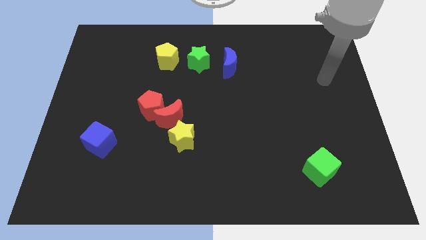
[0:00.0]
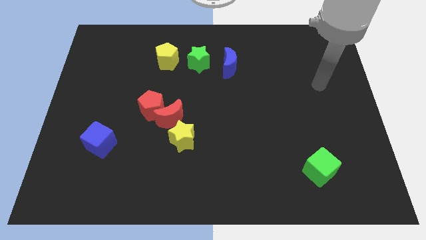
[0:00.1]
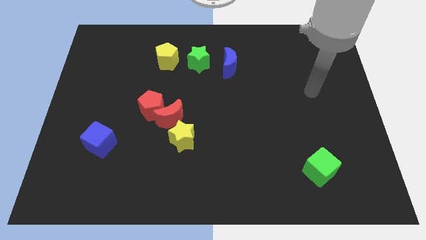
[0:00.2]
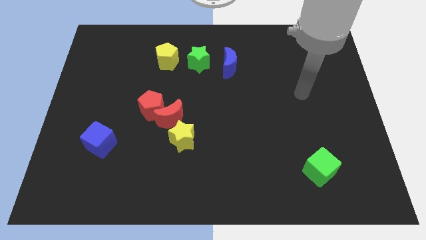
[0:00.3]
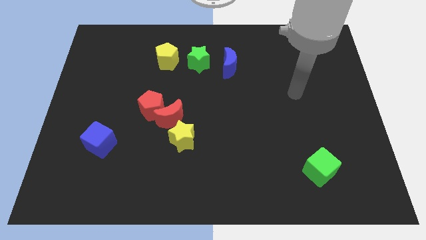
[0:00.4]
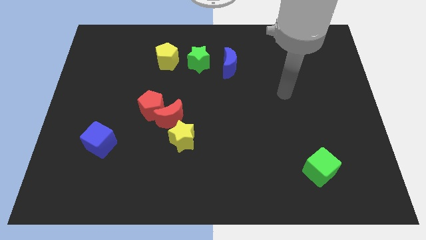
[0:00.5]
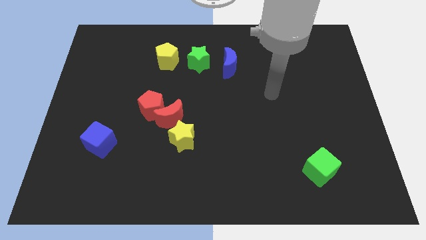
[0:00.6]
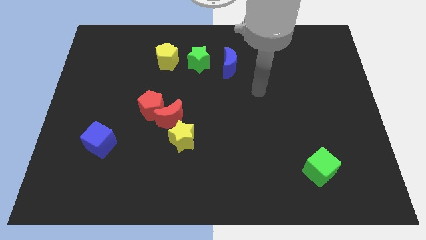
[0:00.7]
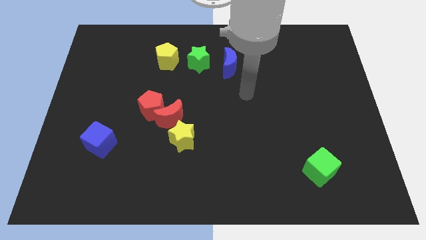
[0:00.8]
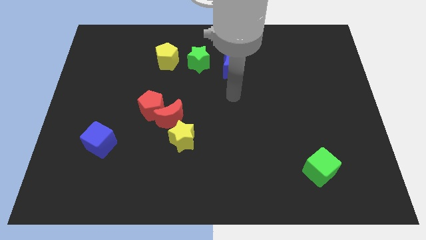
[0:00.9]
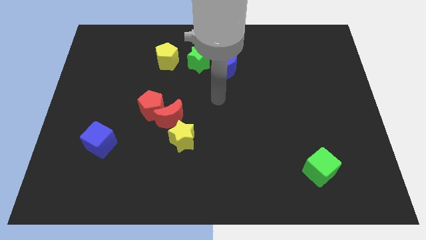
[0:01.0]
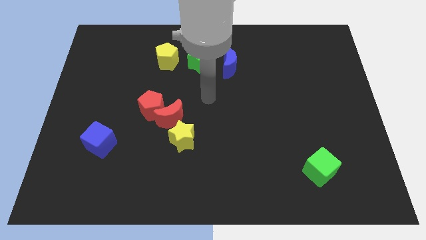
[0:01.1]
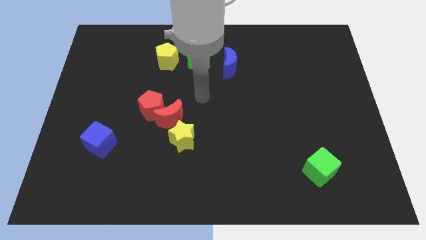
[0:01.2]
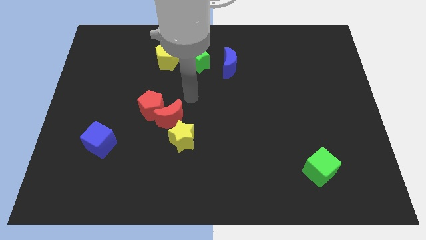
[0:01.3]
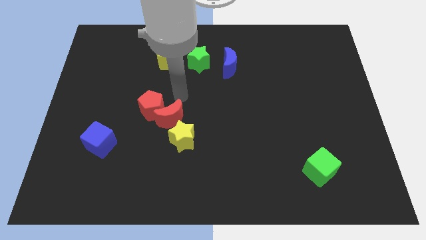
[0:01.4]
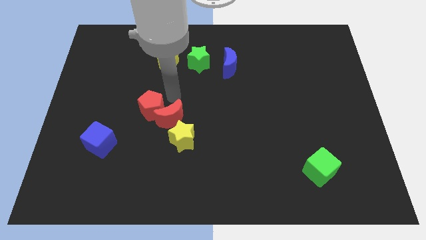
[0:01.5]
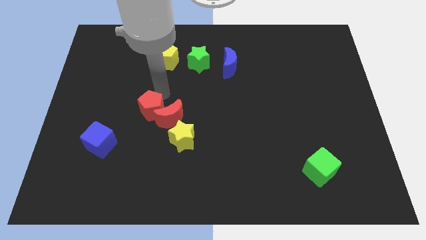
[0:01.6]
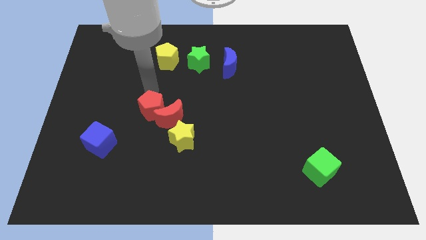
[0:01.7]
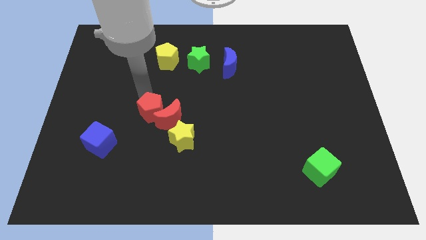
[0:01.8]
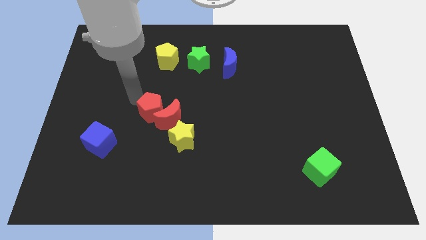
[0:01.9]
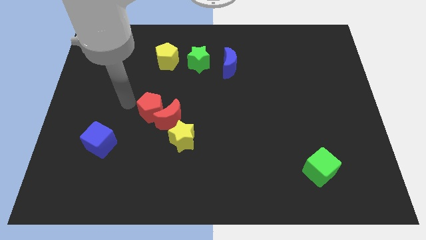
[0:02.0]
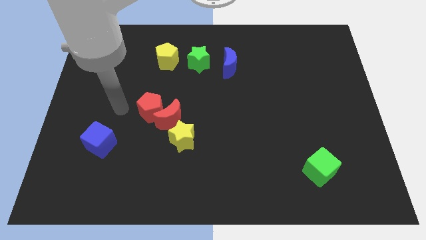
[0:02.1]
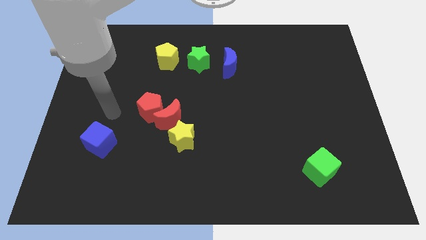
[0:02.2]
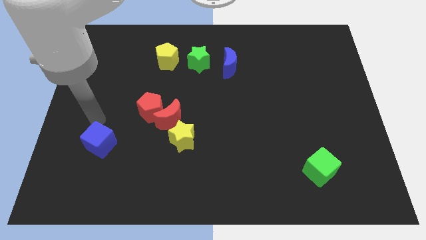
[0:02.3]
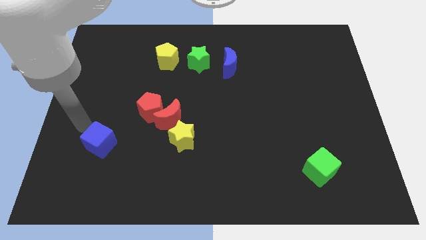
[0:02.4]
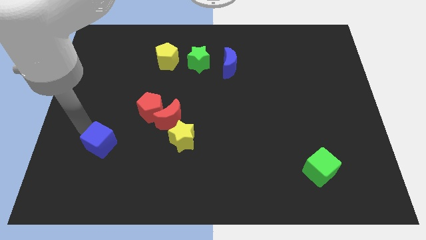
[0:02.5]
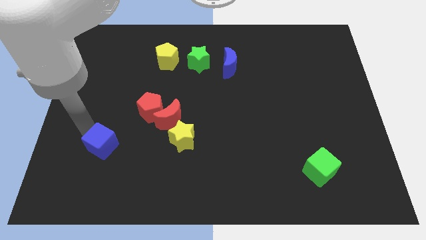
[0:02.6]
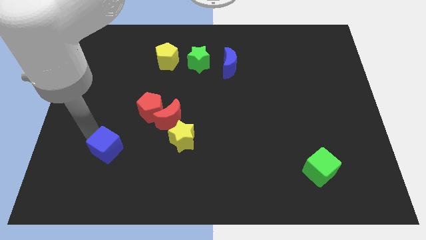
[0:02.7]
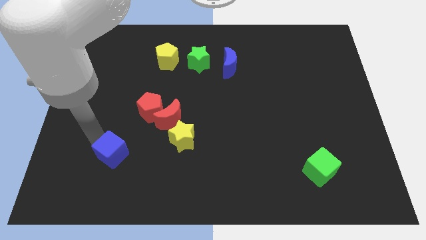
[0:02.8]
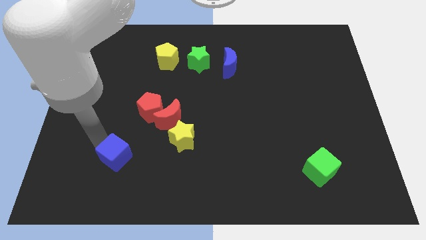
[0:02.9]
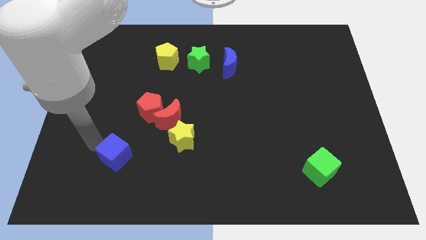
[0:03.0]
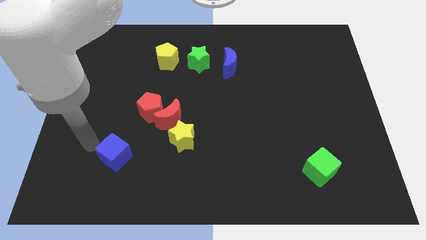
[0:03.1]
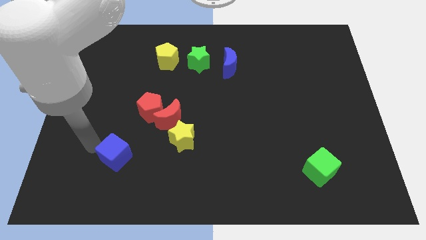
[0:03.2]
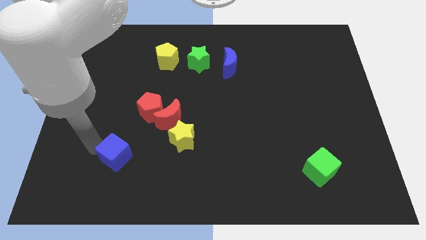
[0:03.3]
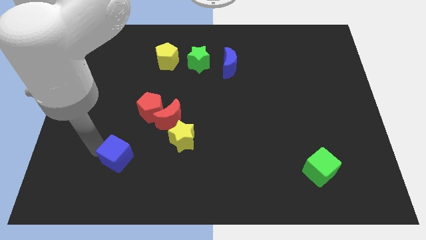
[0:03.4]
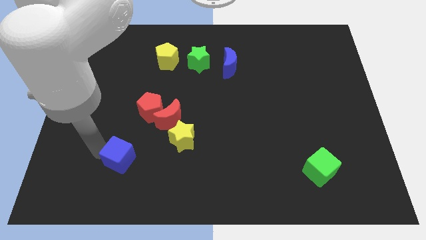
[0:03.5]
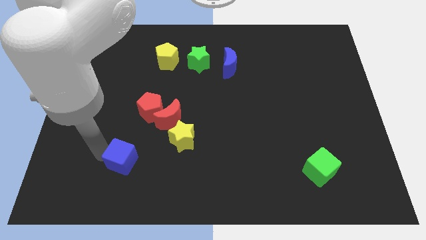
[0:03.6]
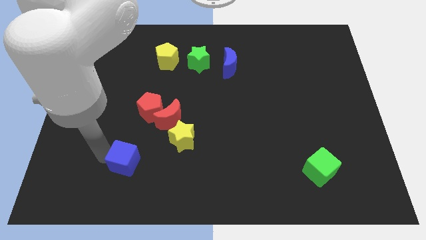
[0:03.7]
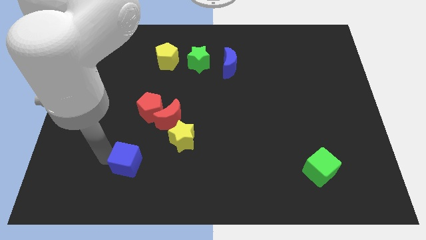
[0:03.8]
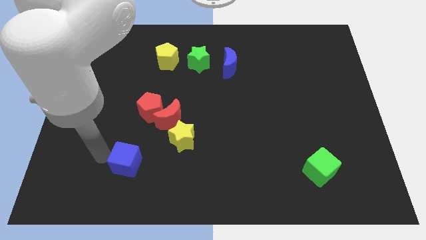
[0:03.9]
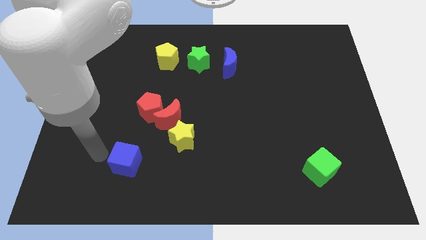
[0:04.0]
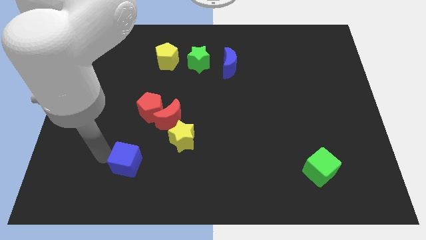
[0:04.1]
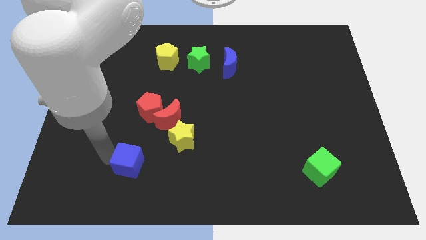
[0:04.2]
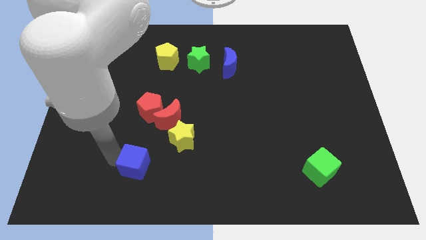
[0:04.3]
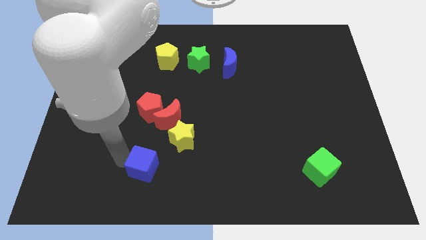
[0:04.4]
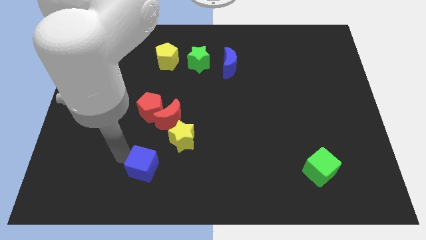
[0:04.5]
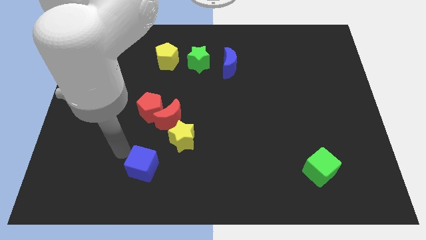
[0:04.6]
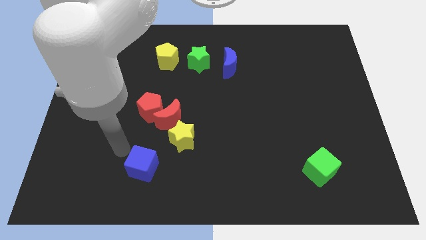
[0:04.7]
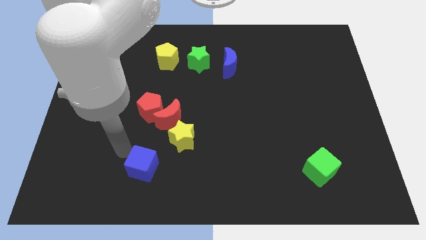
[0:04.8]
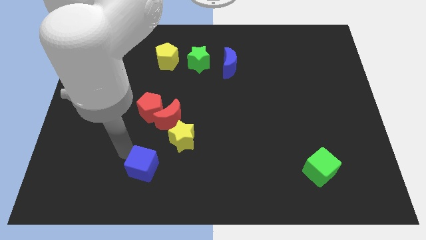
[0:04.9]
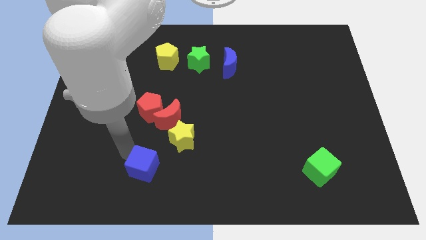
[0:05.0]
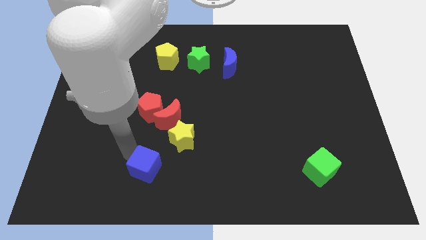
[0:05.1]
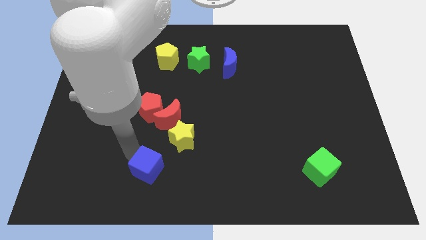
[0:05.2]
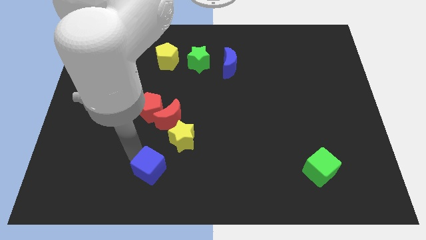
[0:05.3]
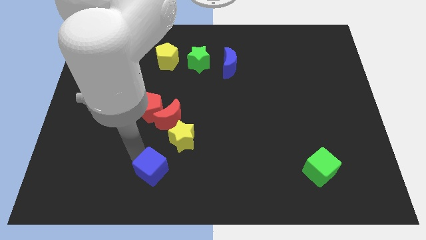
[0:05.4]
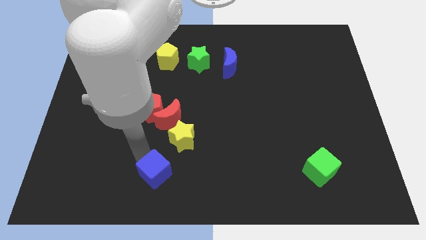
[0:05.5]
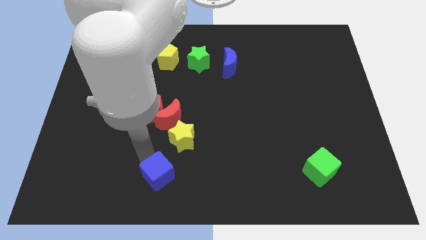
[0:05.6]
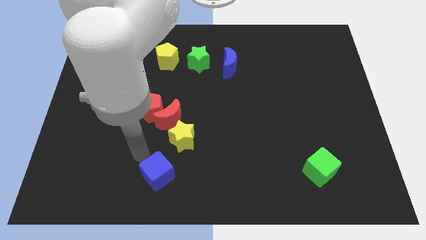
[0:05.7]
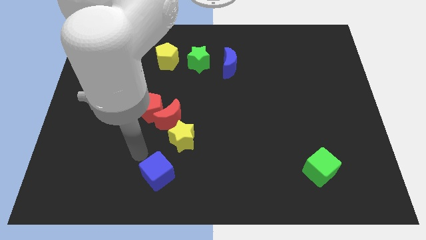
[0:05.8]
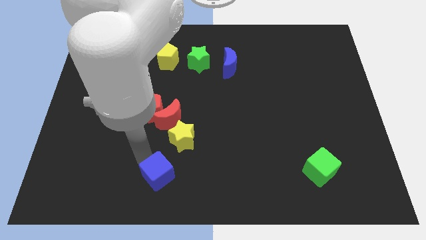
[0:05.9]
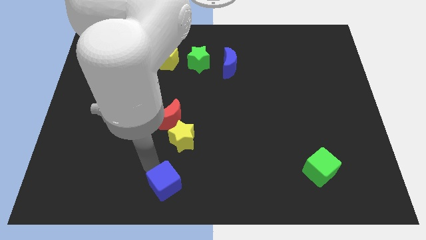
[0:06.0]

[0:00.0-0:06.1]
slide the blue cube to the bottom
